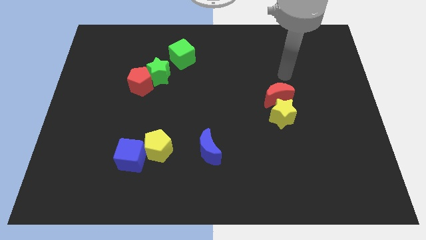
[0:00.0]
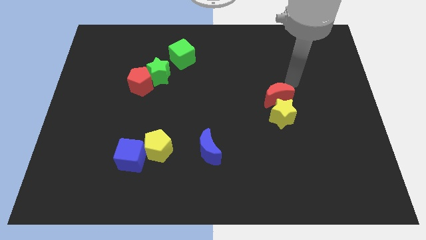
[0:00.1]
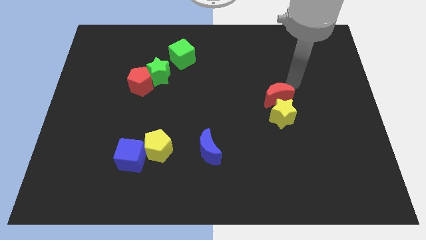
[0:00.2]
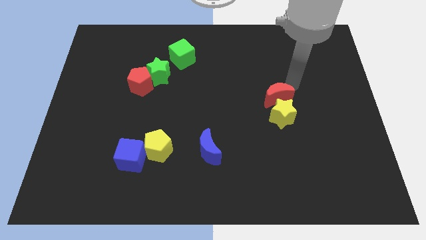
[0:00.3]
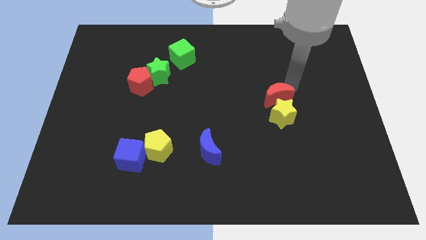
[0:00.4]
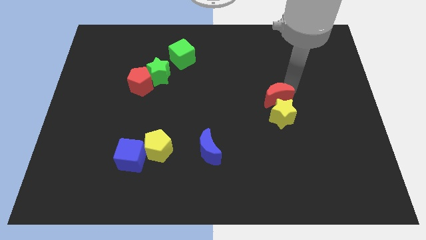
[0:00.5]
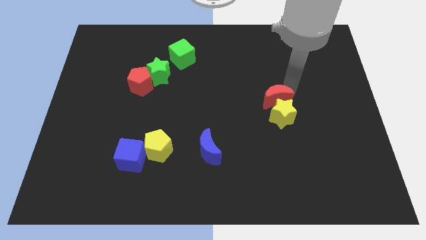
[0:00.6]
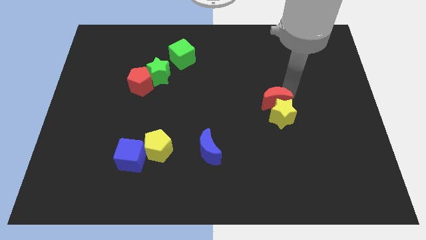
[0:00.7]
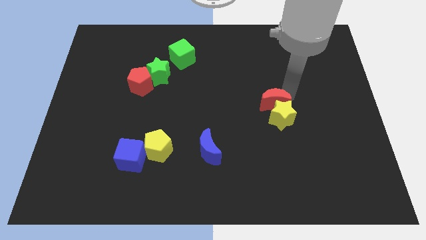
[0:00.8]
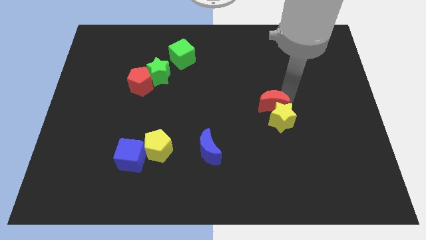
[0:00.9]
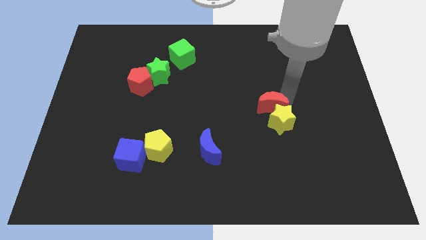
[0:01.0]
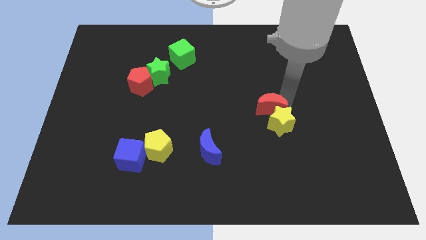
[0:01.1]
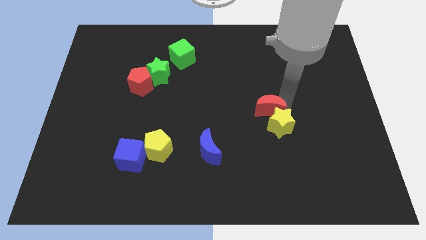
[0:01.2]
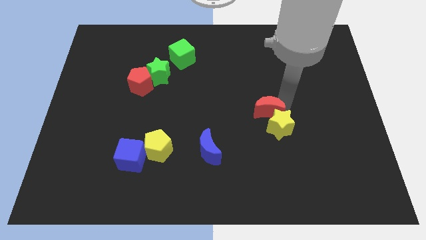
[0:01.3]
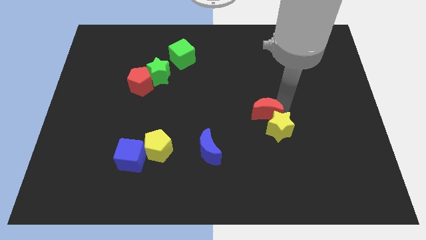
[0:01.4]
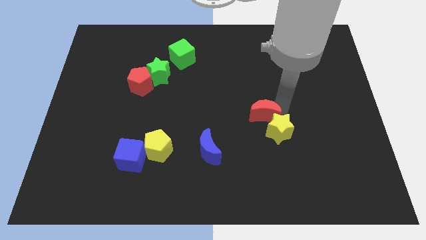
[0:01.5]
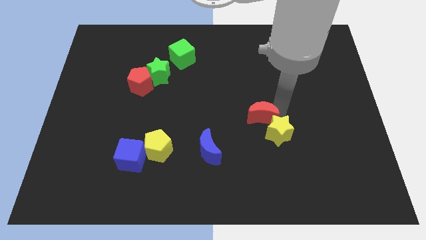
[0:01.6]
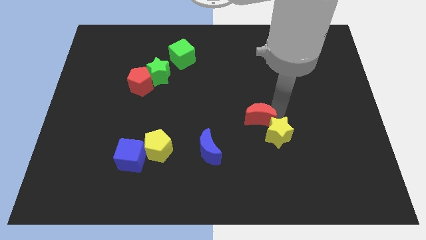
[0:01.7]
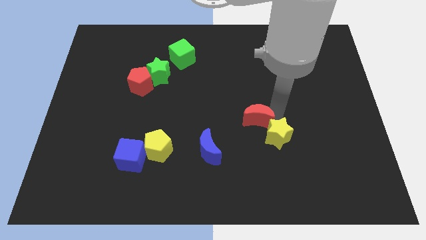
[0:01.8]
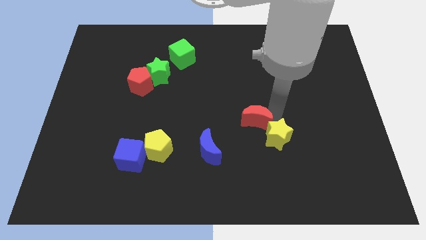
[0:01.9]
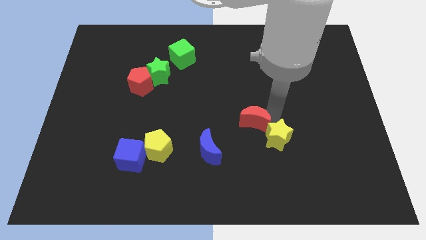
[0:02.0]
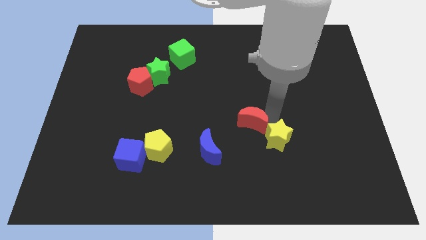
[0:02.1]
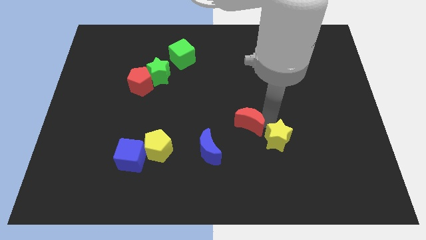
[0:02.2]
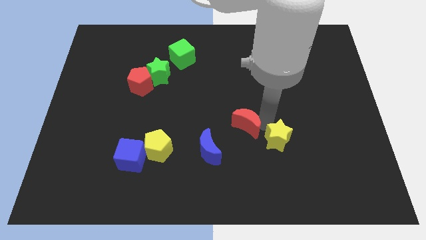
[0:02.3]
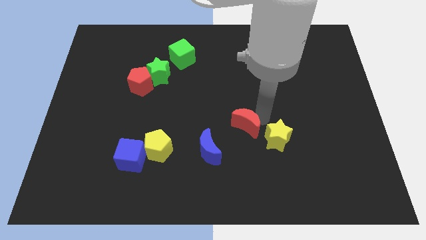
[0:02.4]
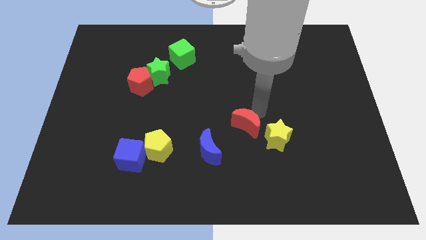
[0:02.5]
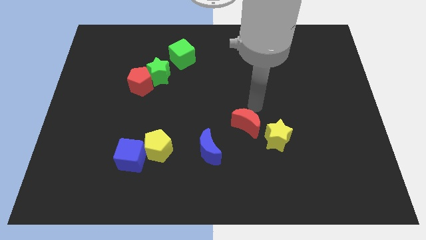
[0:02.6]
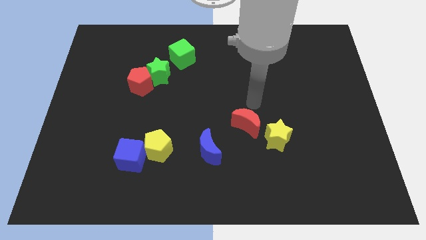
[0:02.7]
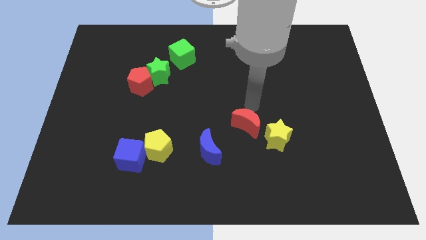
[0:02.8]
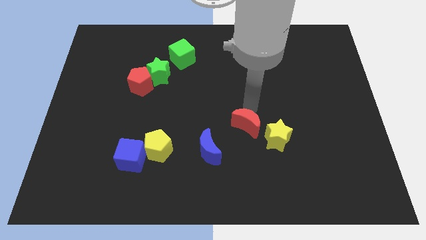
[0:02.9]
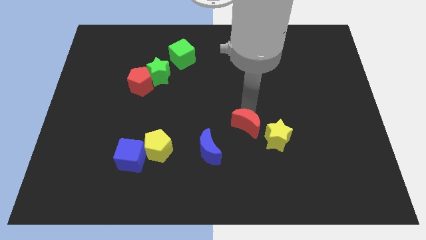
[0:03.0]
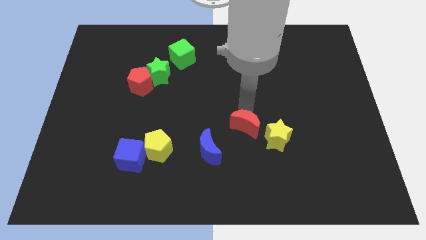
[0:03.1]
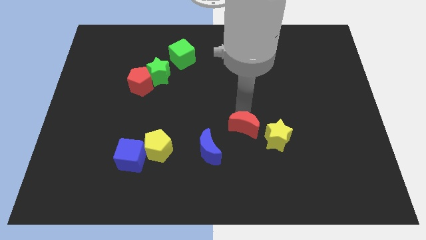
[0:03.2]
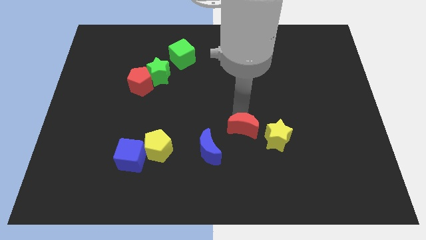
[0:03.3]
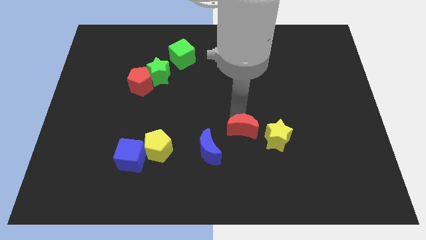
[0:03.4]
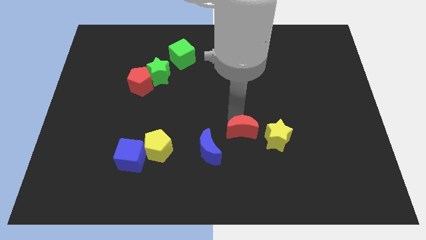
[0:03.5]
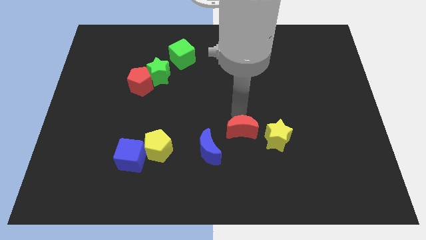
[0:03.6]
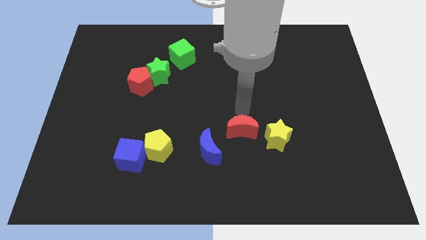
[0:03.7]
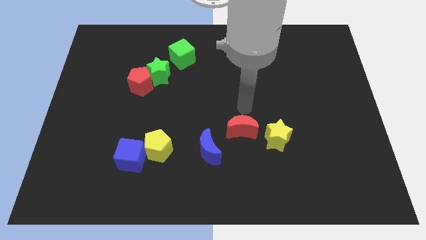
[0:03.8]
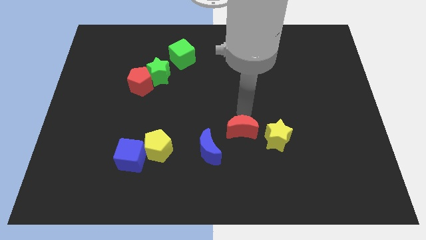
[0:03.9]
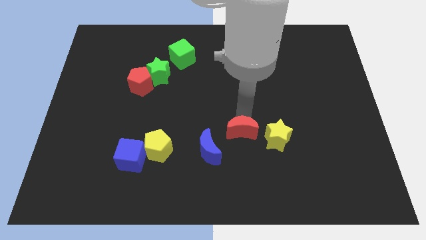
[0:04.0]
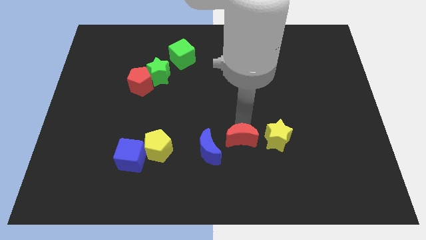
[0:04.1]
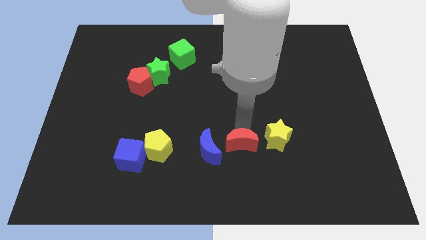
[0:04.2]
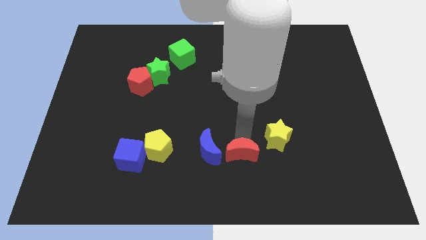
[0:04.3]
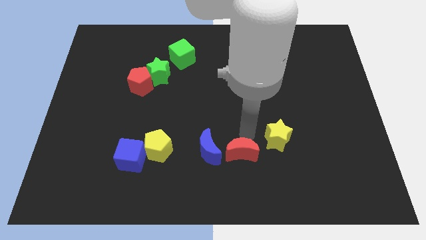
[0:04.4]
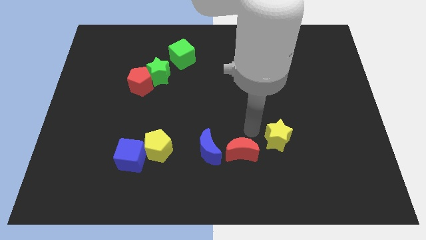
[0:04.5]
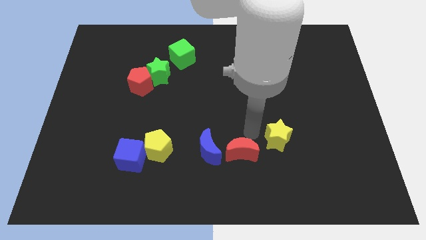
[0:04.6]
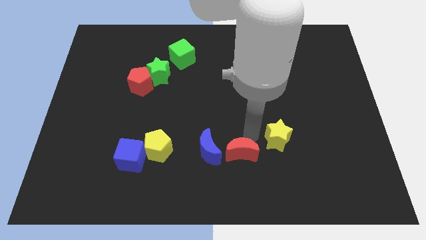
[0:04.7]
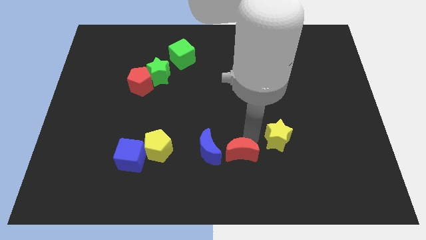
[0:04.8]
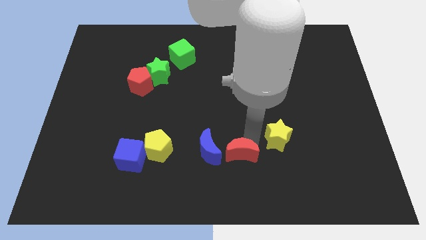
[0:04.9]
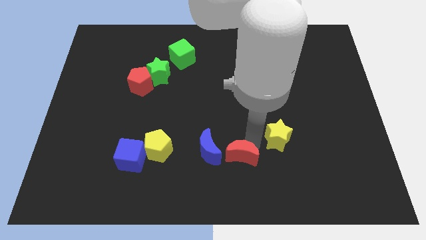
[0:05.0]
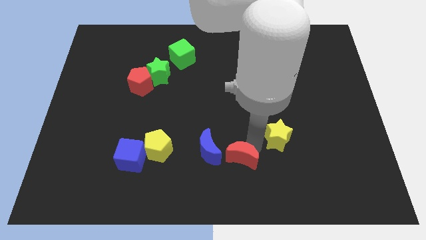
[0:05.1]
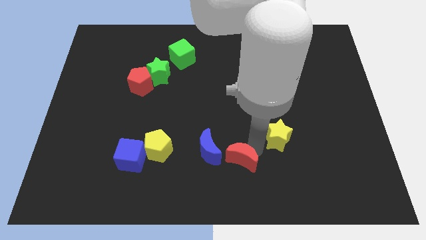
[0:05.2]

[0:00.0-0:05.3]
move the red moon to the bottom

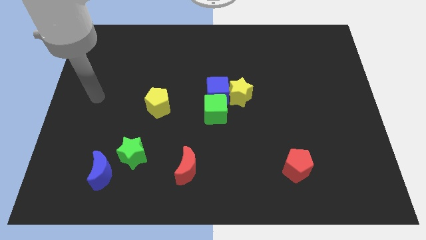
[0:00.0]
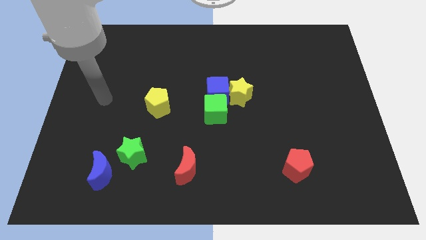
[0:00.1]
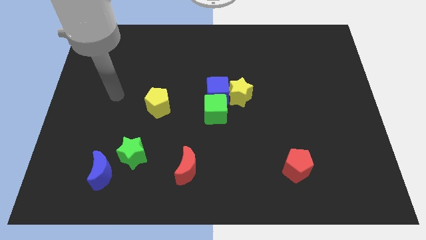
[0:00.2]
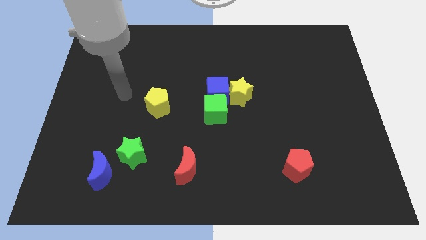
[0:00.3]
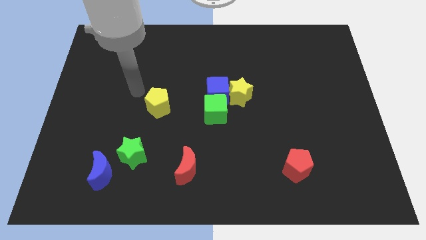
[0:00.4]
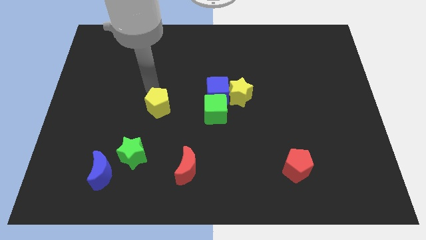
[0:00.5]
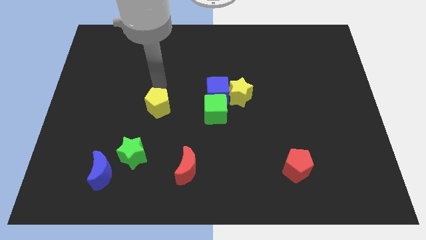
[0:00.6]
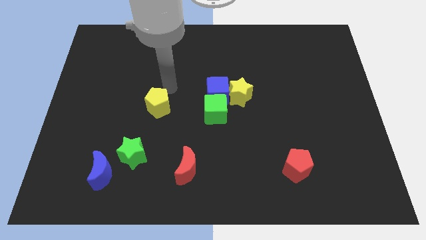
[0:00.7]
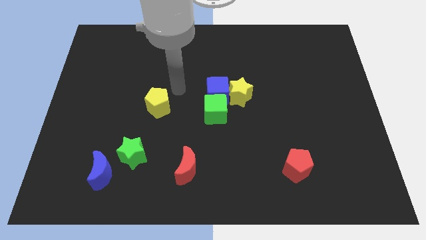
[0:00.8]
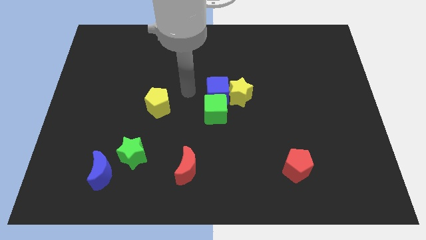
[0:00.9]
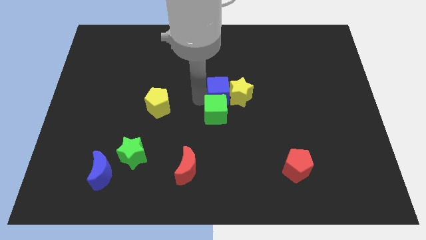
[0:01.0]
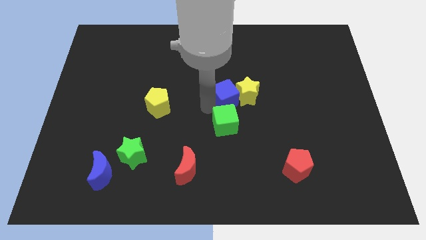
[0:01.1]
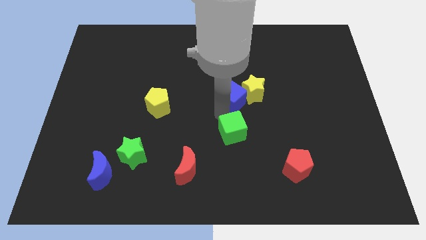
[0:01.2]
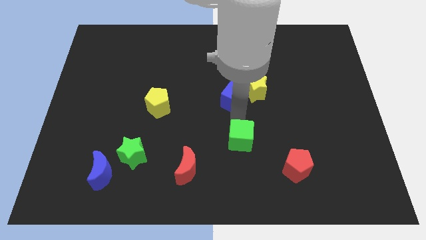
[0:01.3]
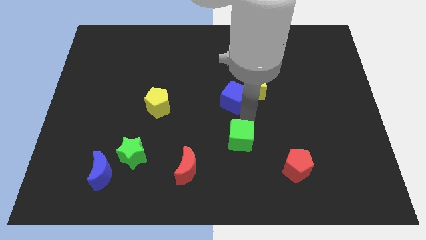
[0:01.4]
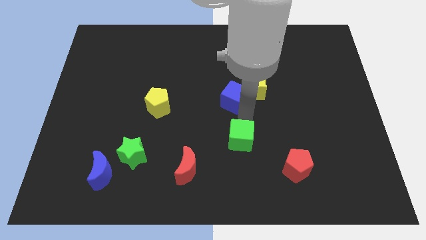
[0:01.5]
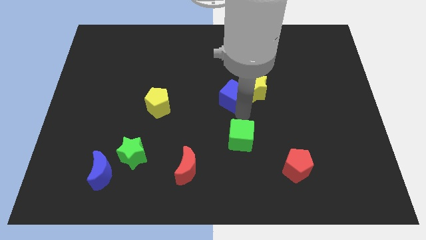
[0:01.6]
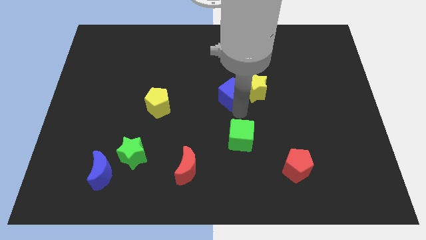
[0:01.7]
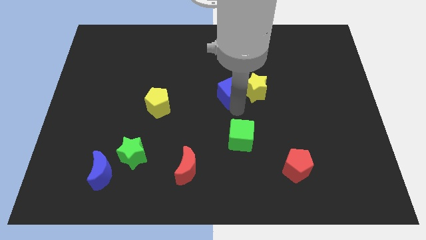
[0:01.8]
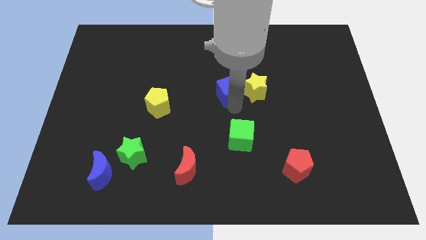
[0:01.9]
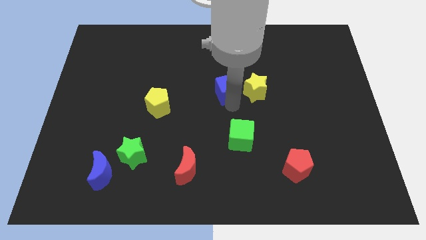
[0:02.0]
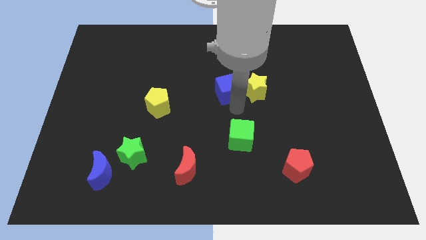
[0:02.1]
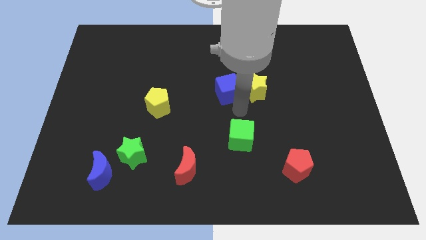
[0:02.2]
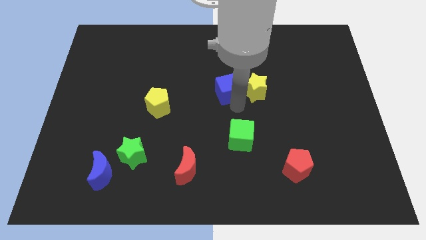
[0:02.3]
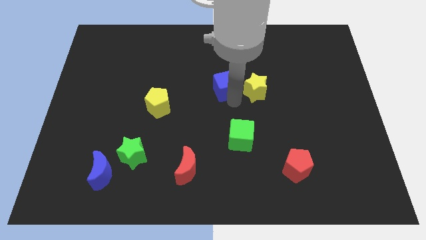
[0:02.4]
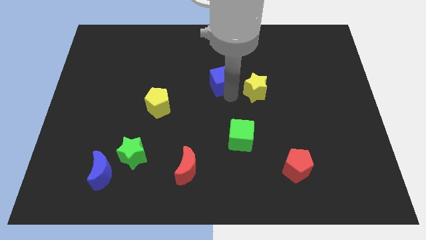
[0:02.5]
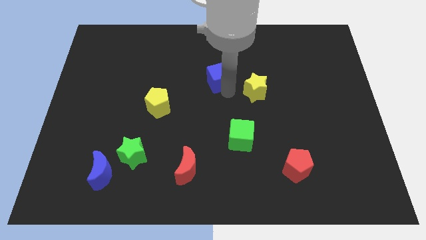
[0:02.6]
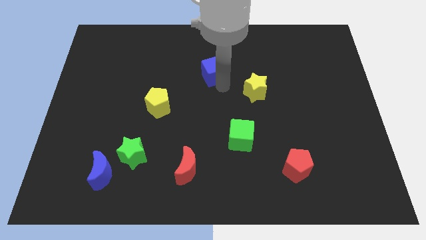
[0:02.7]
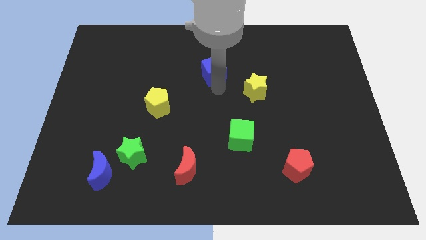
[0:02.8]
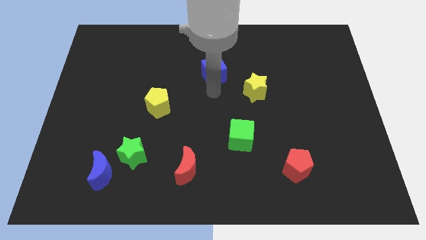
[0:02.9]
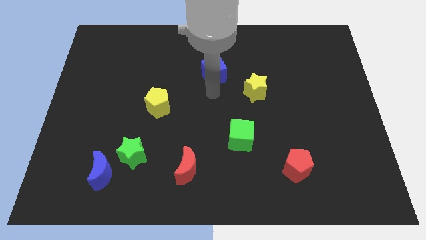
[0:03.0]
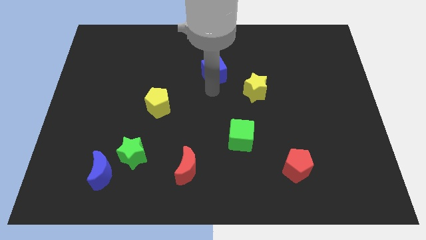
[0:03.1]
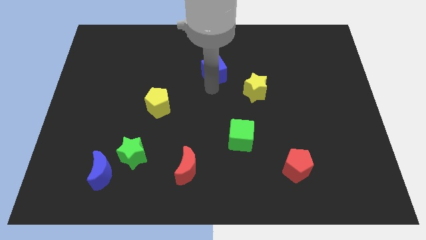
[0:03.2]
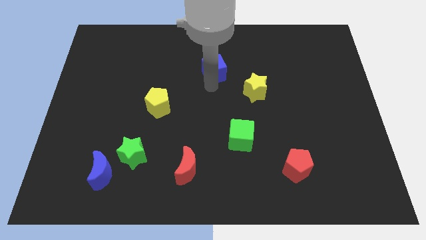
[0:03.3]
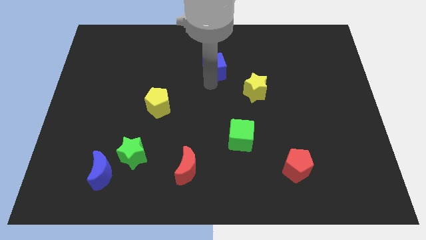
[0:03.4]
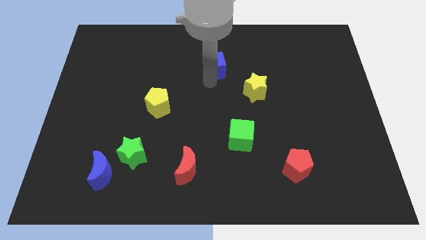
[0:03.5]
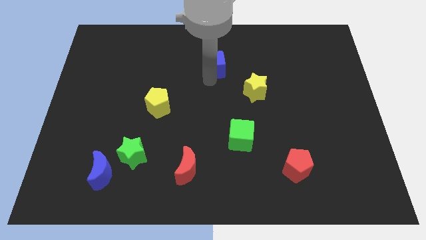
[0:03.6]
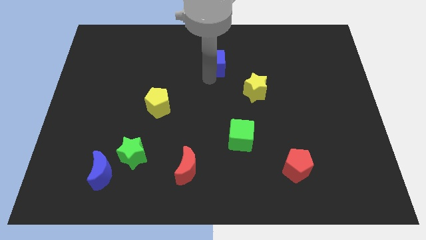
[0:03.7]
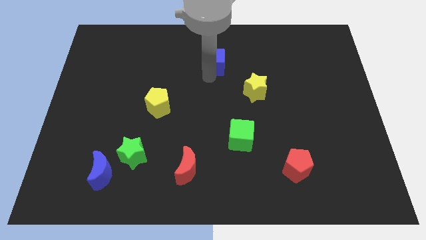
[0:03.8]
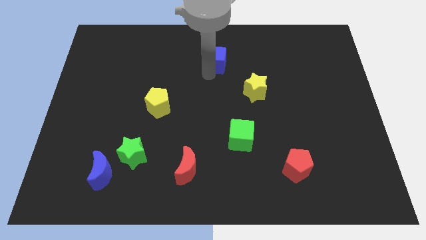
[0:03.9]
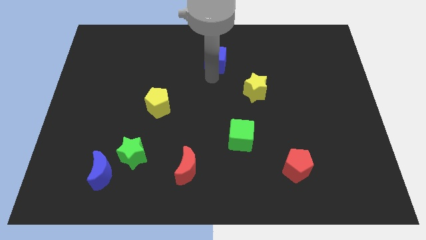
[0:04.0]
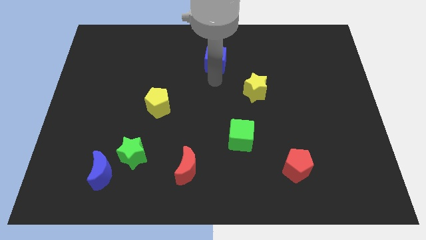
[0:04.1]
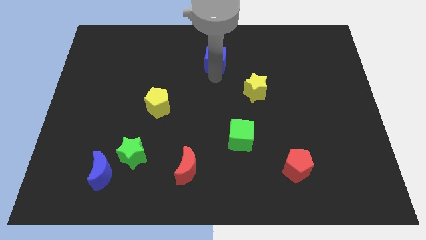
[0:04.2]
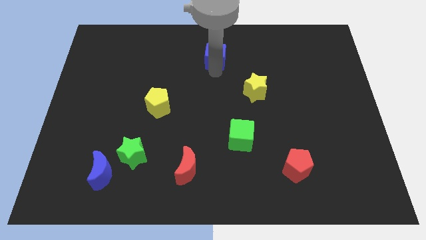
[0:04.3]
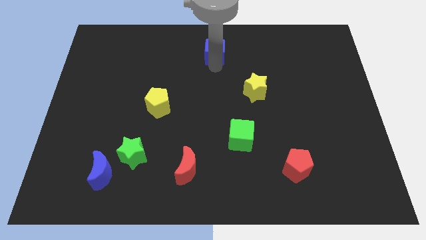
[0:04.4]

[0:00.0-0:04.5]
push the blue cube to the towards your base
